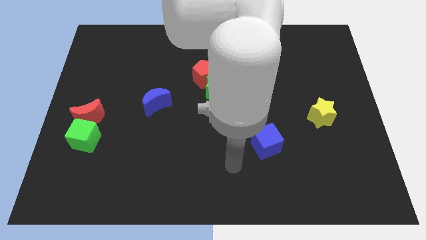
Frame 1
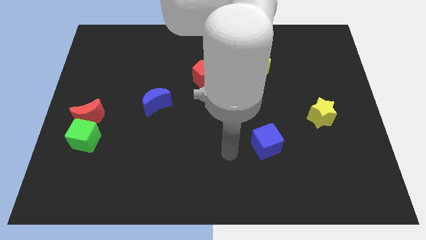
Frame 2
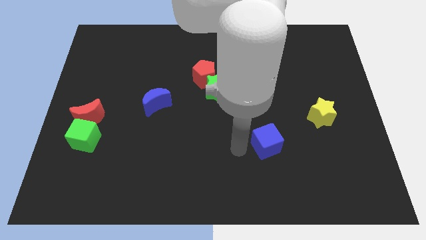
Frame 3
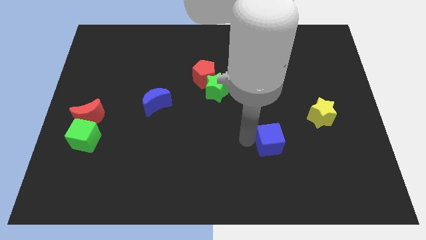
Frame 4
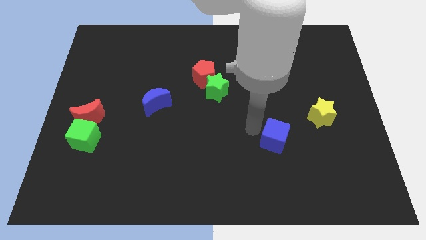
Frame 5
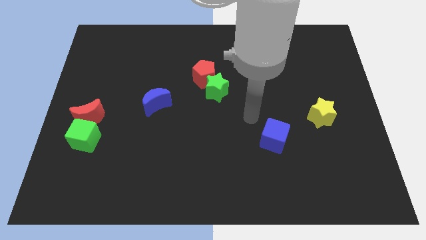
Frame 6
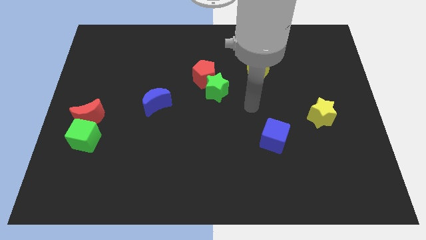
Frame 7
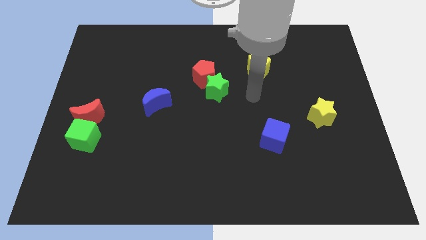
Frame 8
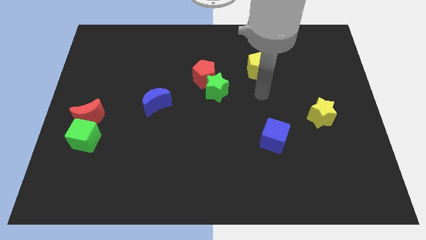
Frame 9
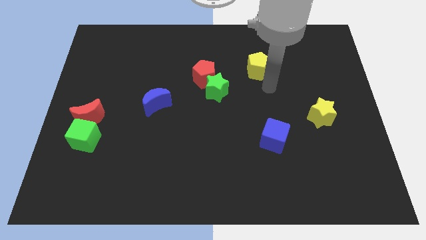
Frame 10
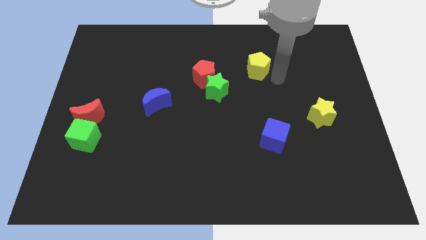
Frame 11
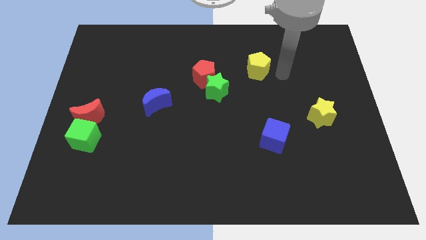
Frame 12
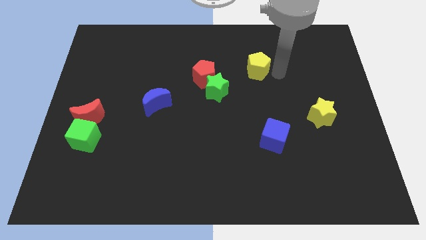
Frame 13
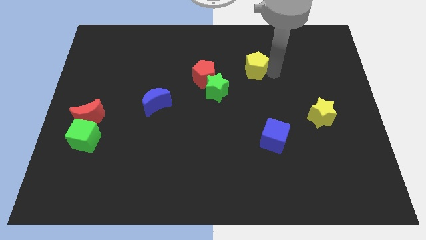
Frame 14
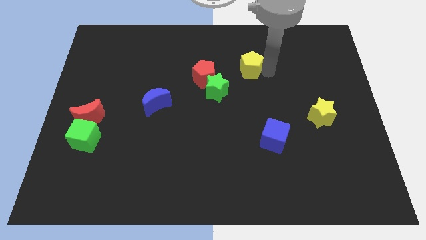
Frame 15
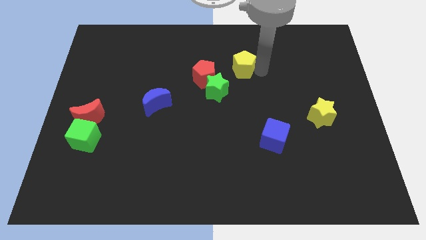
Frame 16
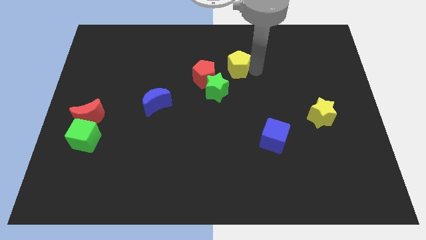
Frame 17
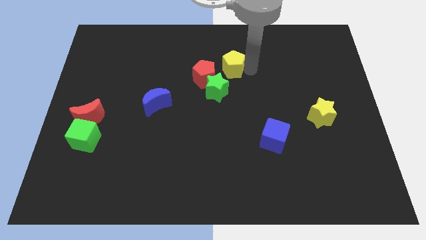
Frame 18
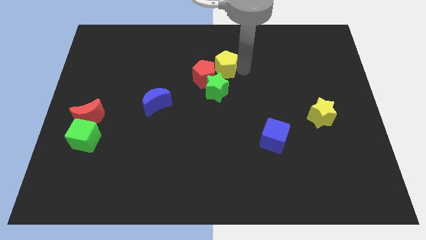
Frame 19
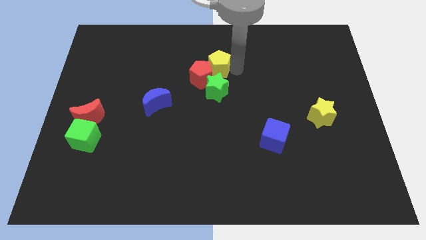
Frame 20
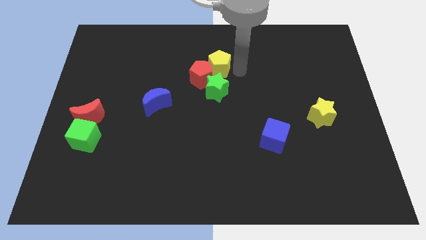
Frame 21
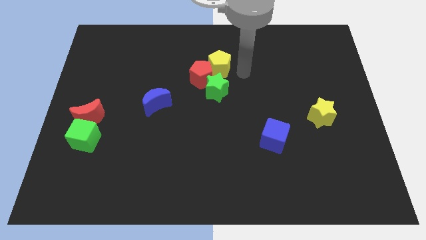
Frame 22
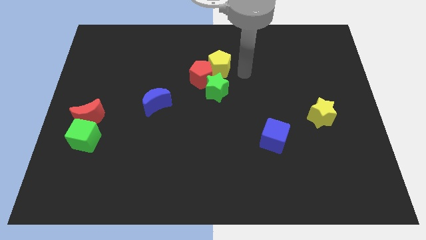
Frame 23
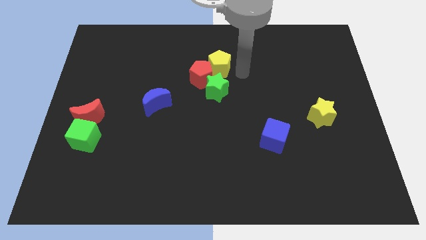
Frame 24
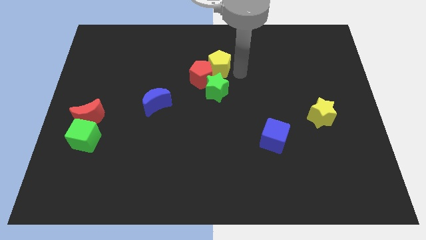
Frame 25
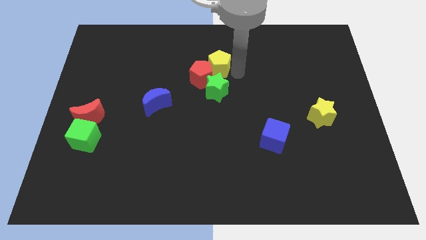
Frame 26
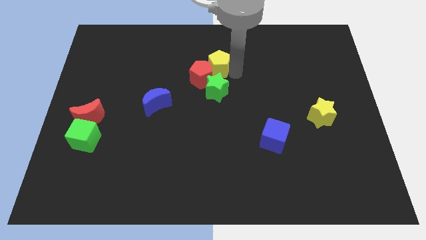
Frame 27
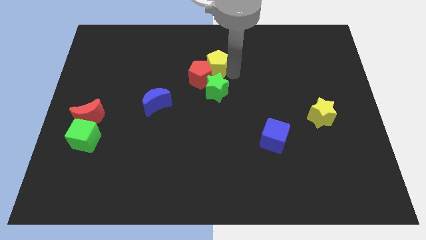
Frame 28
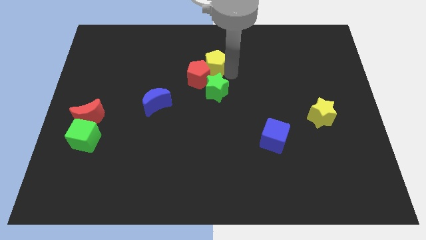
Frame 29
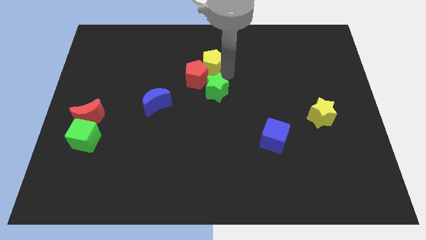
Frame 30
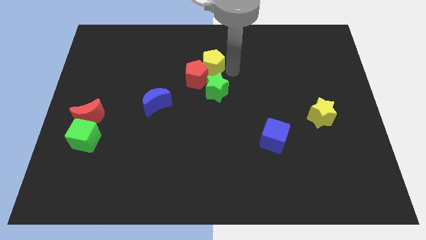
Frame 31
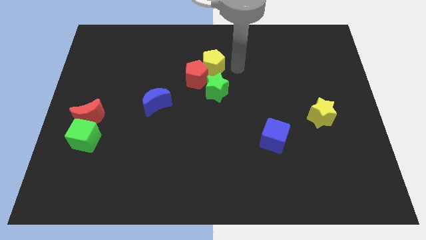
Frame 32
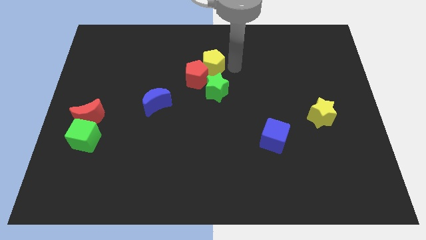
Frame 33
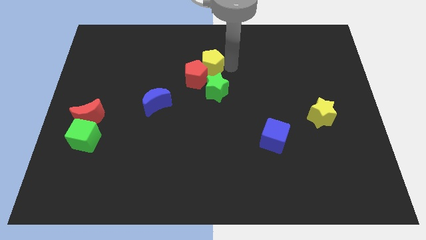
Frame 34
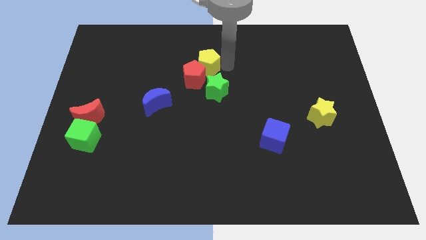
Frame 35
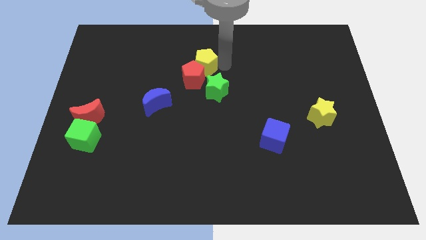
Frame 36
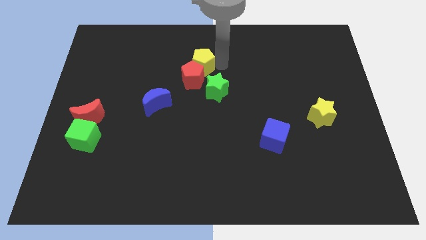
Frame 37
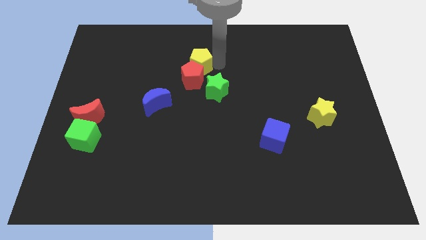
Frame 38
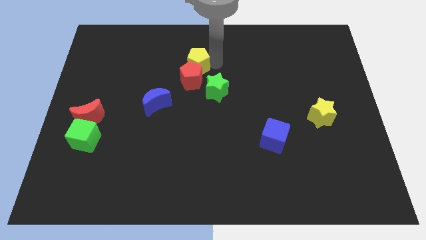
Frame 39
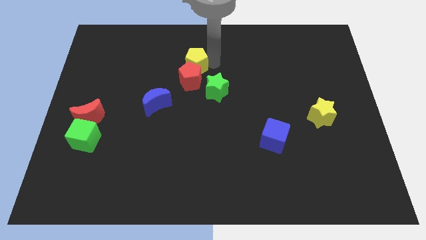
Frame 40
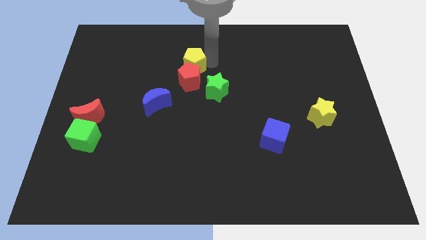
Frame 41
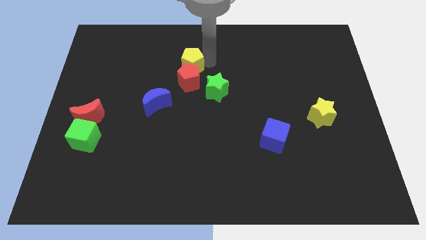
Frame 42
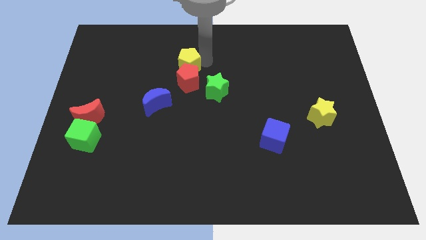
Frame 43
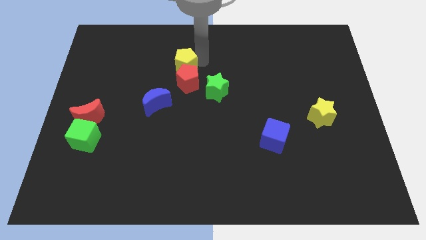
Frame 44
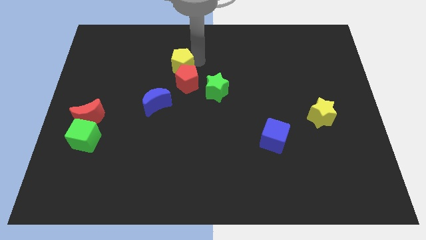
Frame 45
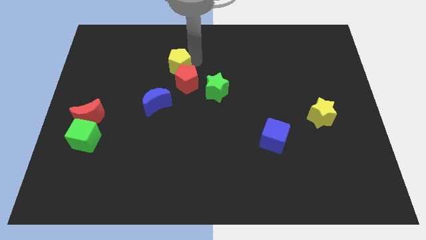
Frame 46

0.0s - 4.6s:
move the yellow pentagon left

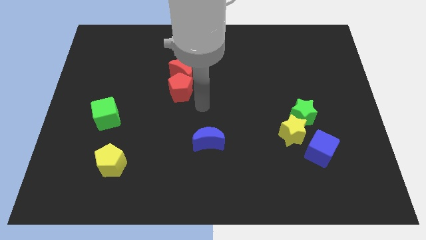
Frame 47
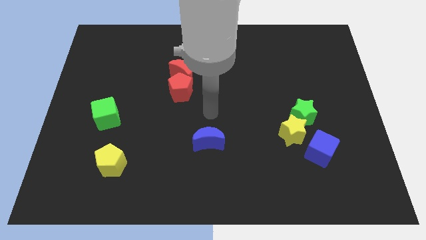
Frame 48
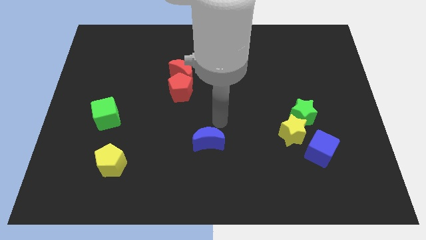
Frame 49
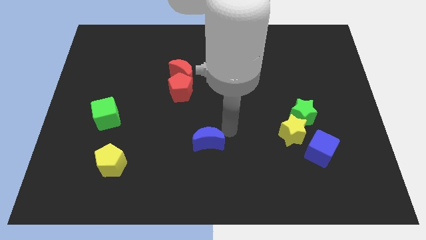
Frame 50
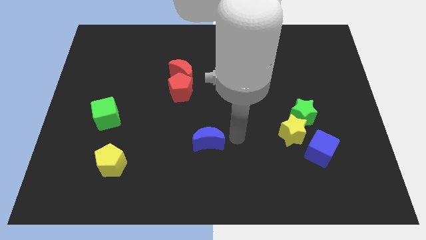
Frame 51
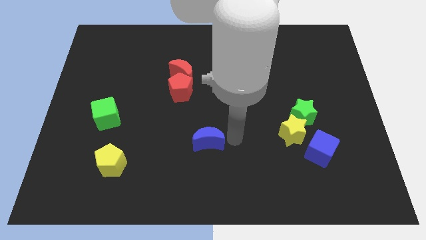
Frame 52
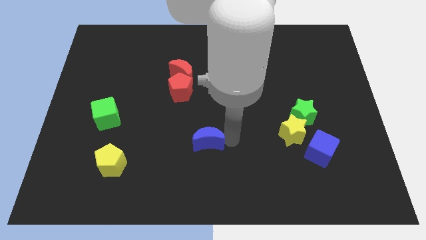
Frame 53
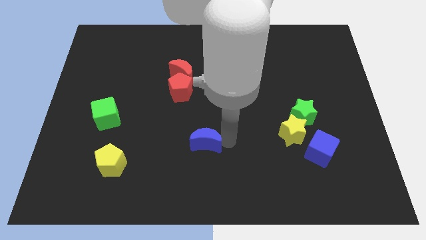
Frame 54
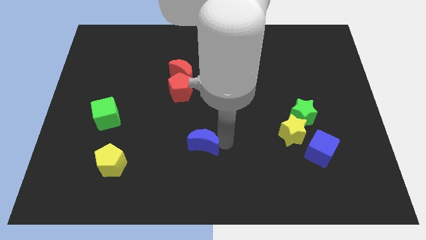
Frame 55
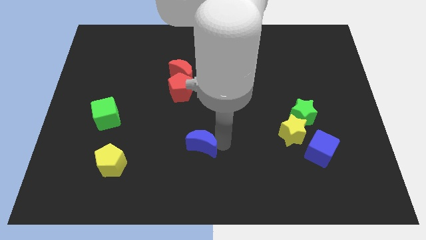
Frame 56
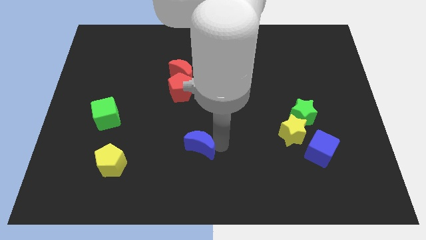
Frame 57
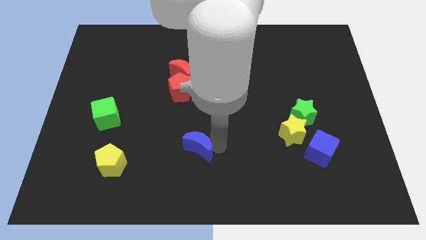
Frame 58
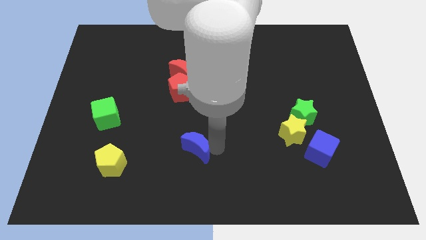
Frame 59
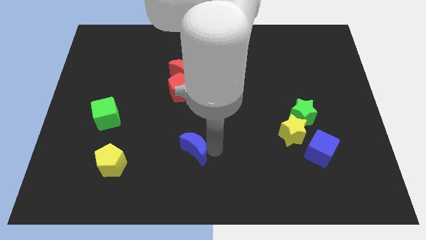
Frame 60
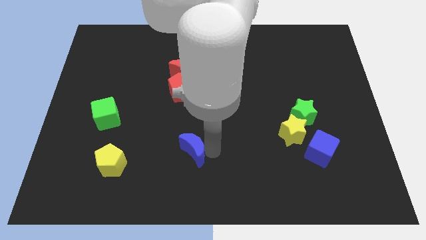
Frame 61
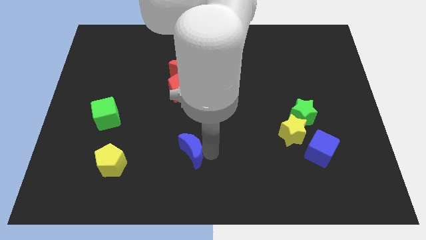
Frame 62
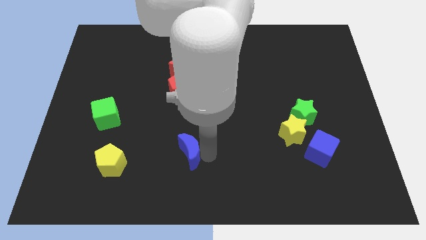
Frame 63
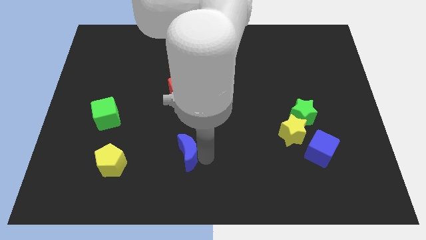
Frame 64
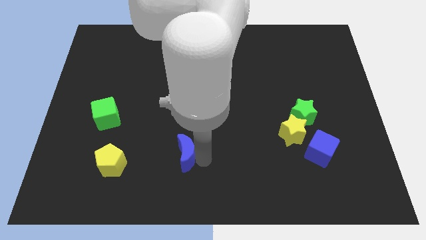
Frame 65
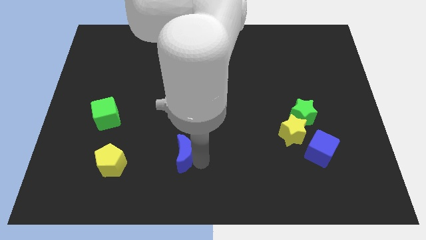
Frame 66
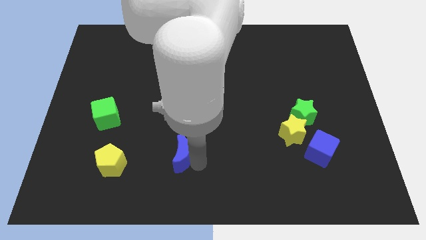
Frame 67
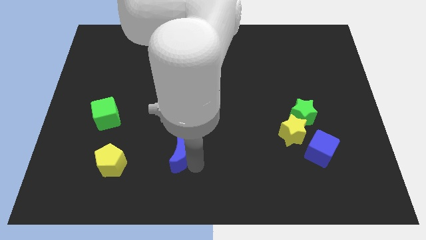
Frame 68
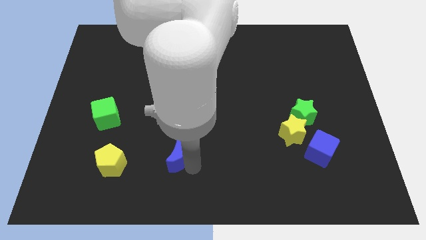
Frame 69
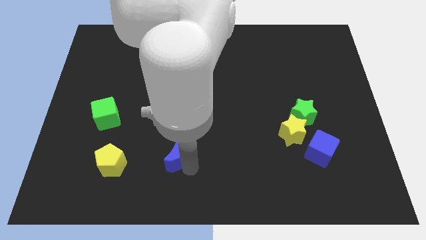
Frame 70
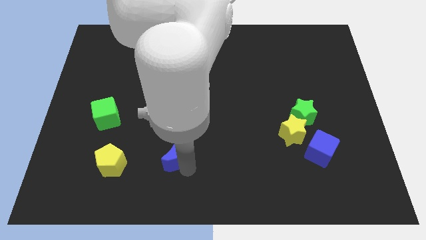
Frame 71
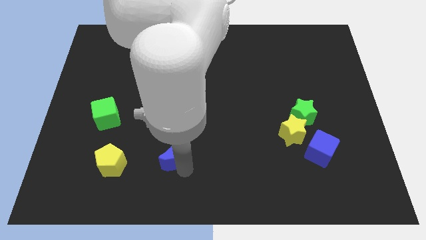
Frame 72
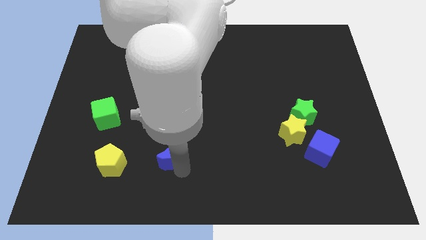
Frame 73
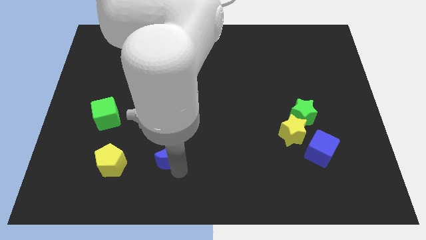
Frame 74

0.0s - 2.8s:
slide the blue moon slightly left
